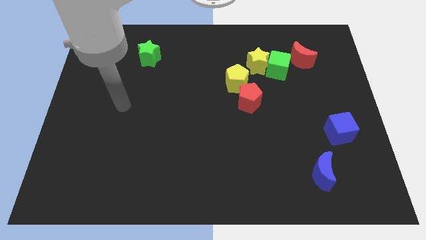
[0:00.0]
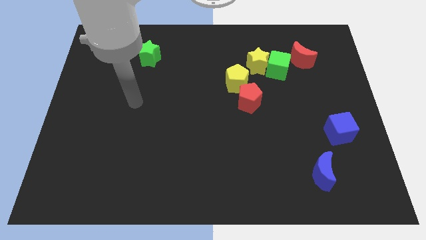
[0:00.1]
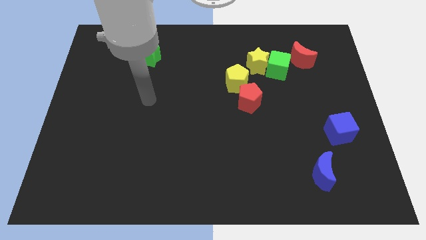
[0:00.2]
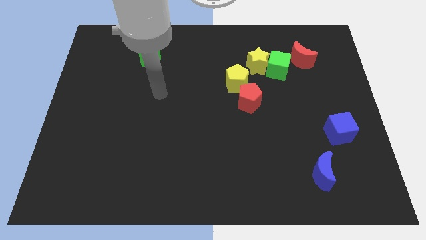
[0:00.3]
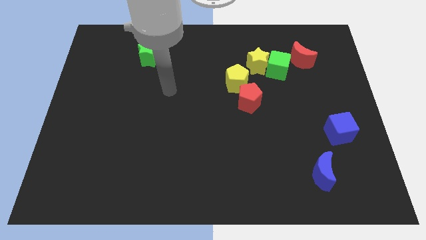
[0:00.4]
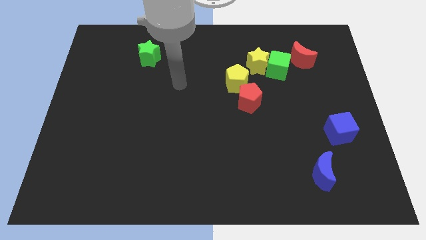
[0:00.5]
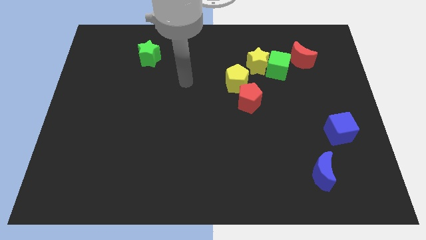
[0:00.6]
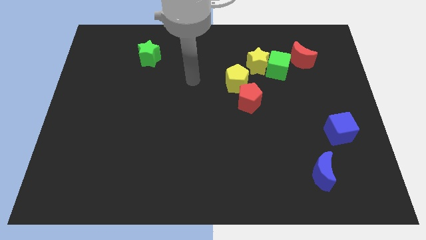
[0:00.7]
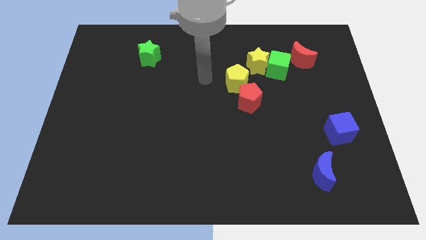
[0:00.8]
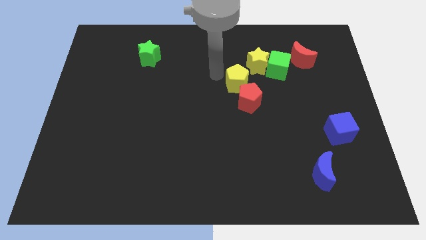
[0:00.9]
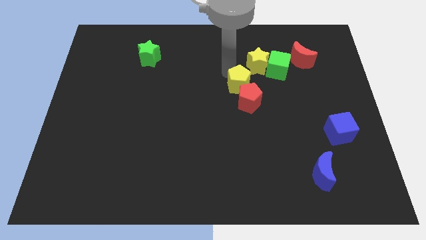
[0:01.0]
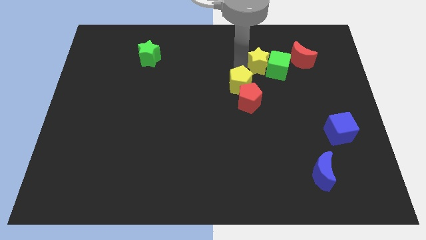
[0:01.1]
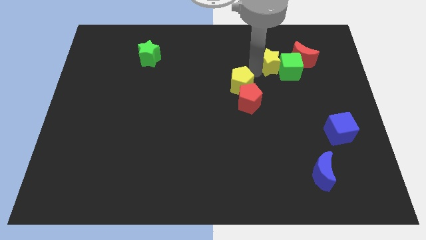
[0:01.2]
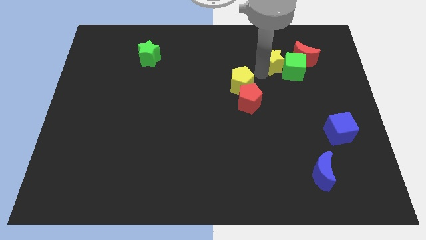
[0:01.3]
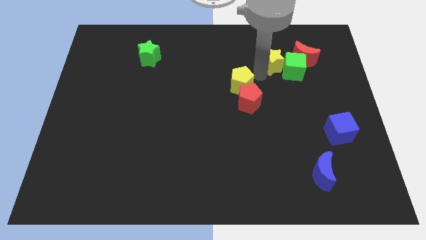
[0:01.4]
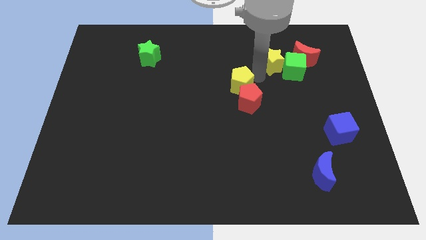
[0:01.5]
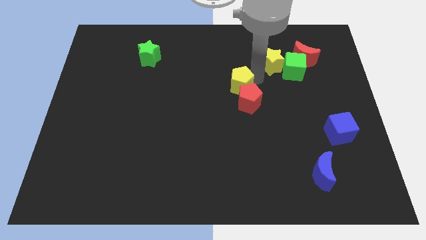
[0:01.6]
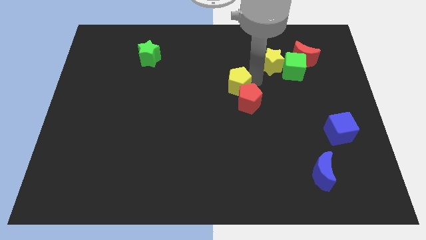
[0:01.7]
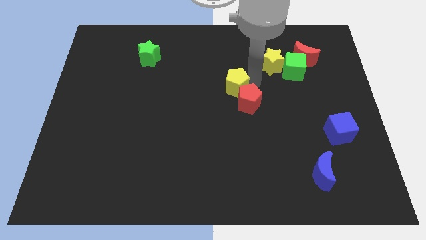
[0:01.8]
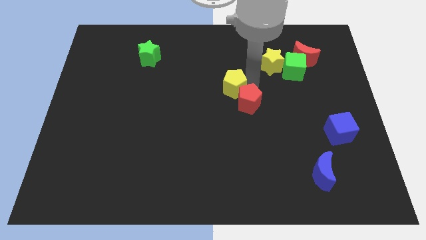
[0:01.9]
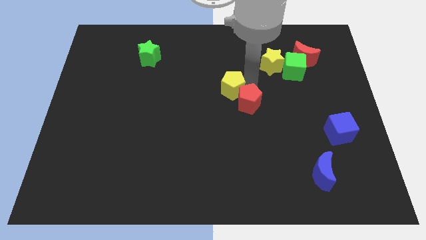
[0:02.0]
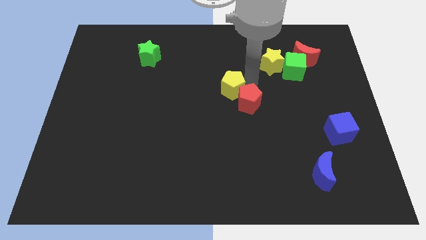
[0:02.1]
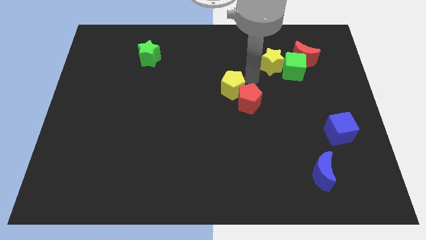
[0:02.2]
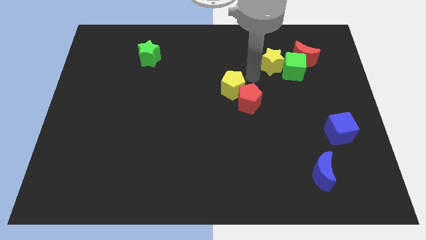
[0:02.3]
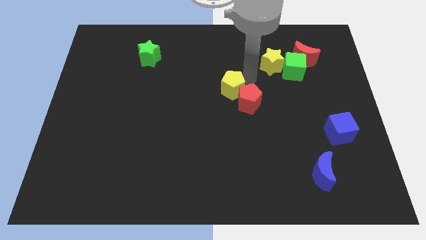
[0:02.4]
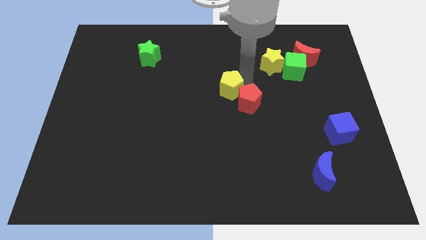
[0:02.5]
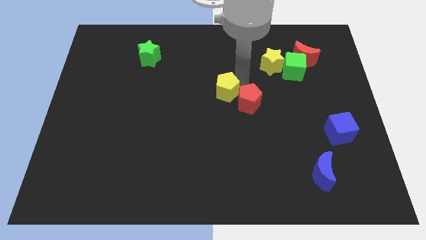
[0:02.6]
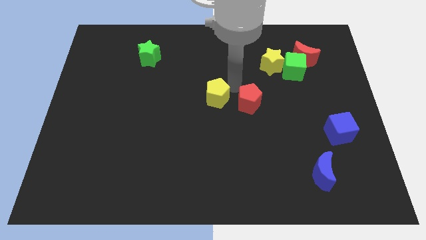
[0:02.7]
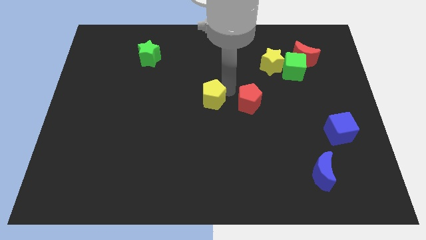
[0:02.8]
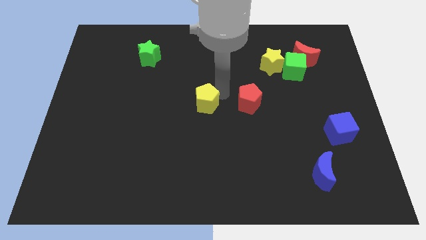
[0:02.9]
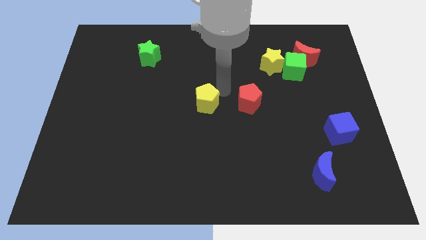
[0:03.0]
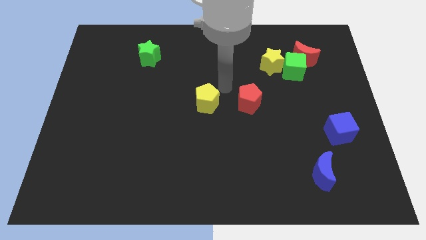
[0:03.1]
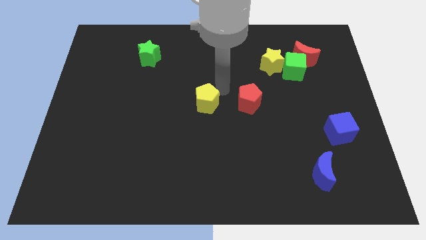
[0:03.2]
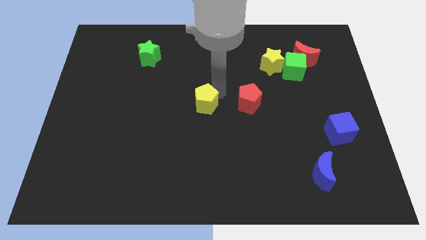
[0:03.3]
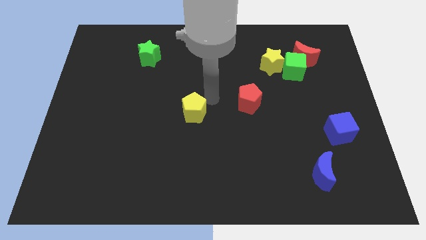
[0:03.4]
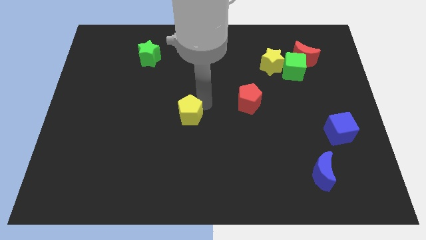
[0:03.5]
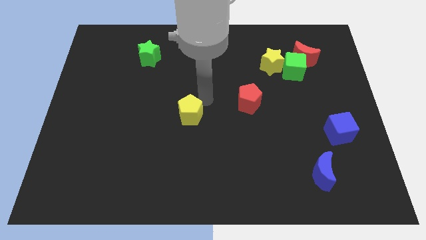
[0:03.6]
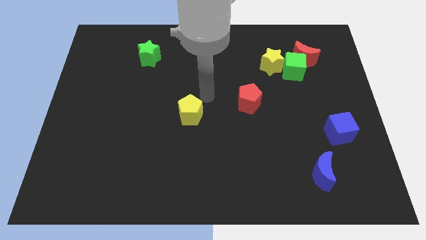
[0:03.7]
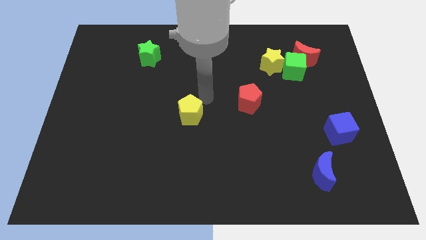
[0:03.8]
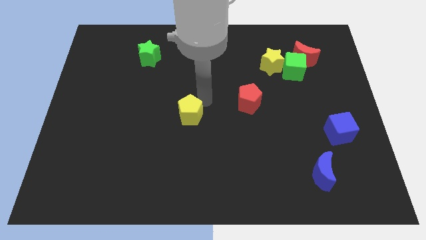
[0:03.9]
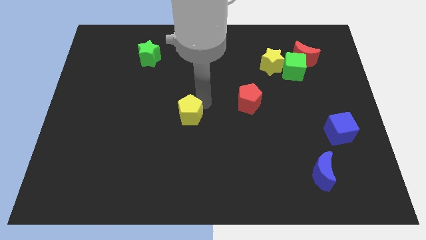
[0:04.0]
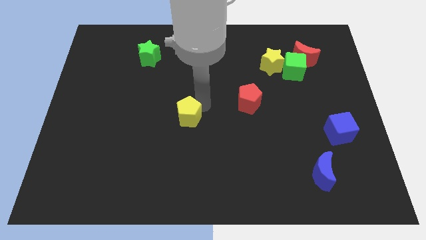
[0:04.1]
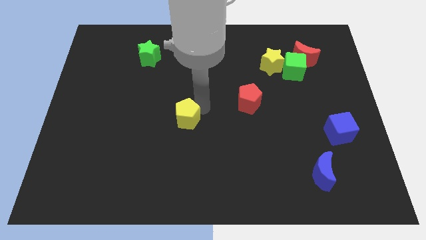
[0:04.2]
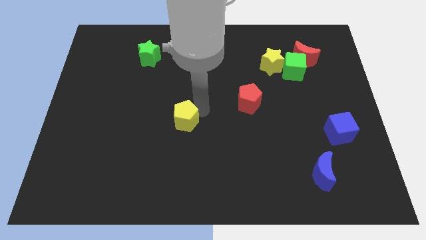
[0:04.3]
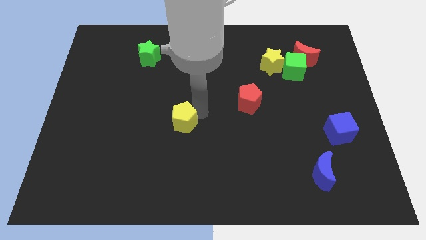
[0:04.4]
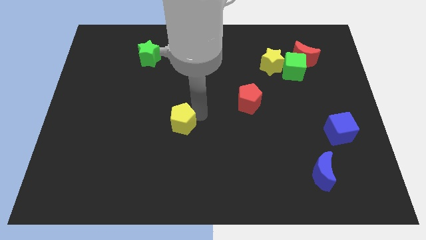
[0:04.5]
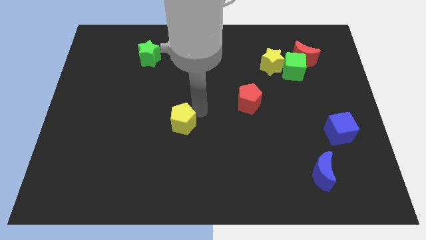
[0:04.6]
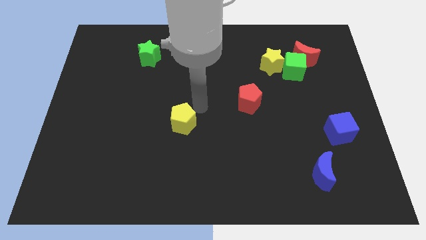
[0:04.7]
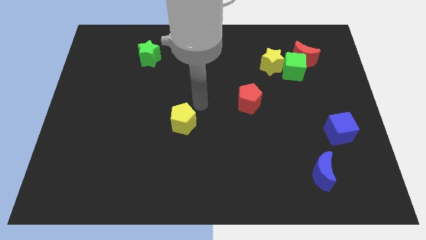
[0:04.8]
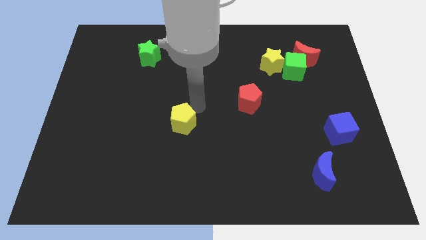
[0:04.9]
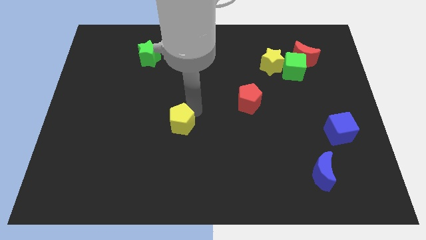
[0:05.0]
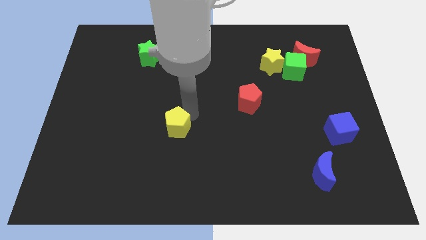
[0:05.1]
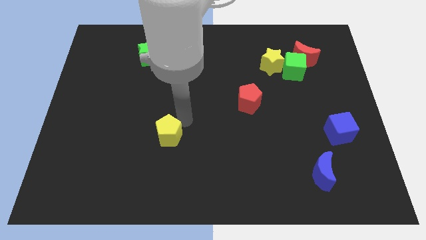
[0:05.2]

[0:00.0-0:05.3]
slide the yellow pentagon downwards and then to the left

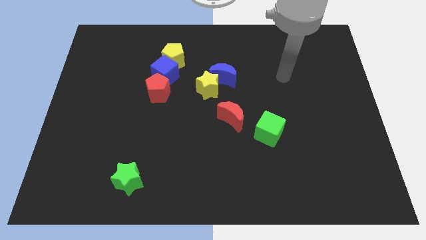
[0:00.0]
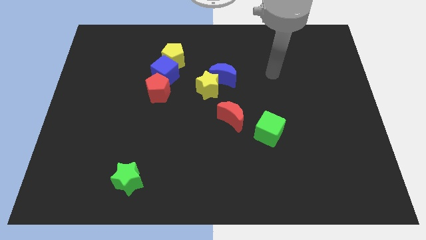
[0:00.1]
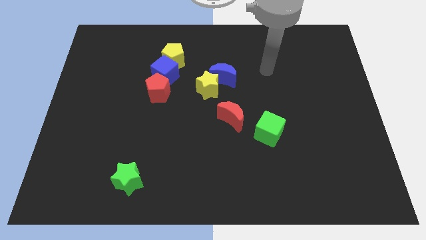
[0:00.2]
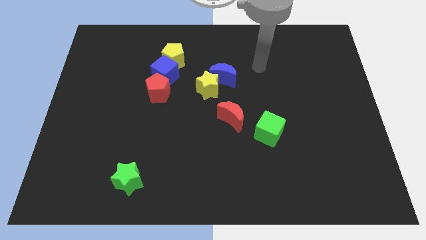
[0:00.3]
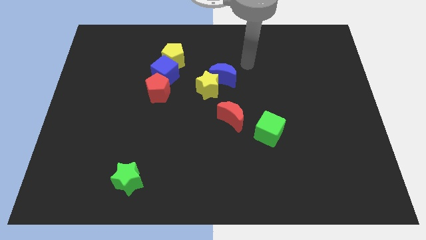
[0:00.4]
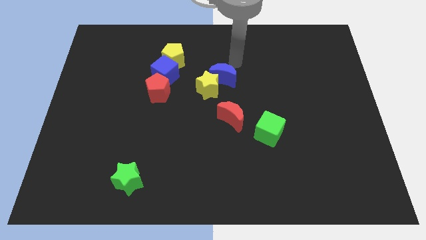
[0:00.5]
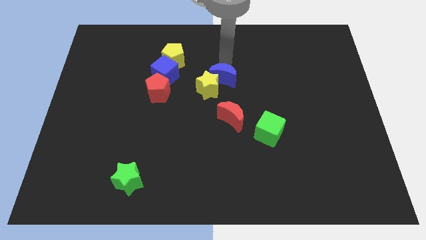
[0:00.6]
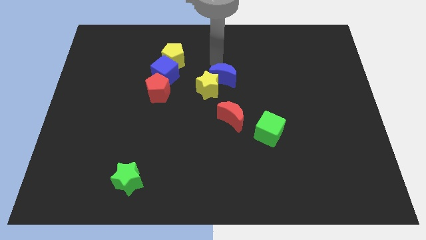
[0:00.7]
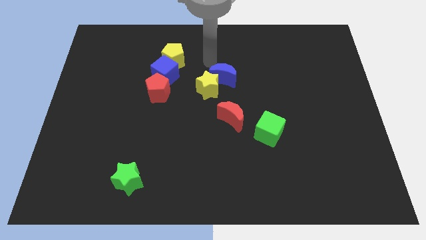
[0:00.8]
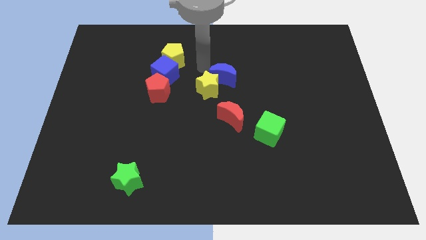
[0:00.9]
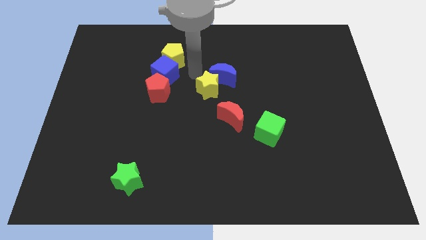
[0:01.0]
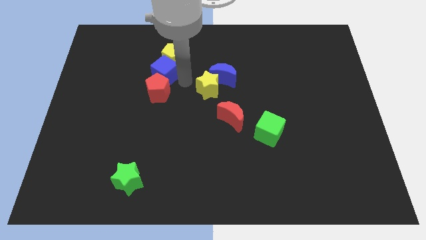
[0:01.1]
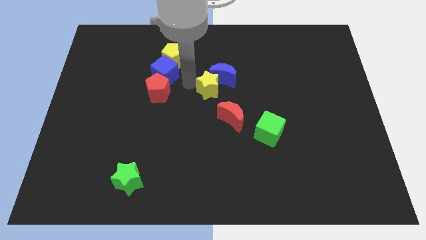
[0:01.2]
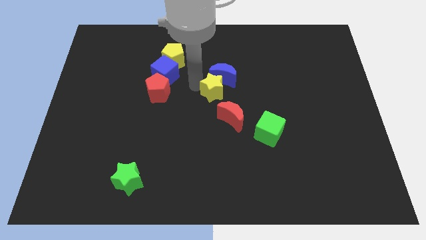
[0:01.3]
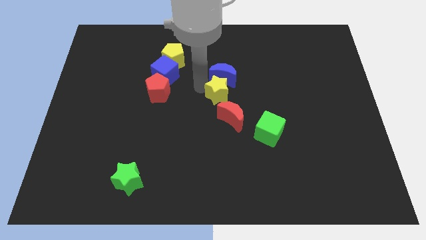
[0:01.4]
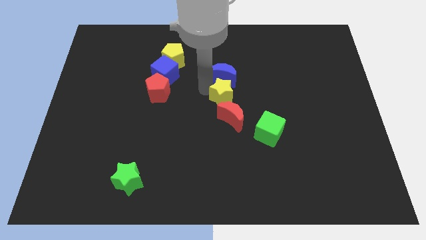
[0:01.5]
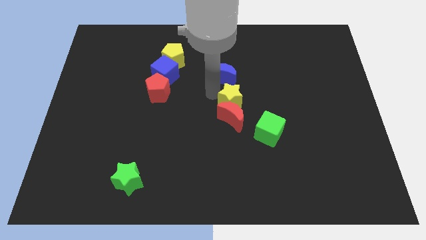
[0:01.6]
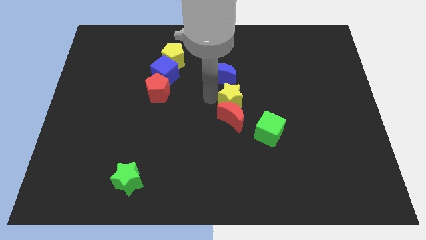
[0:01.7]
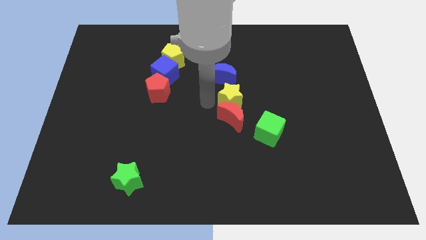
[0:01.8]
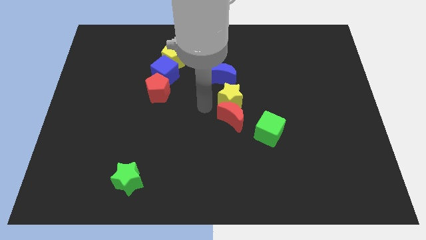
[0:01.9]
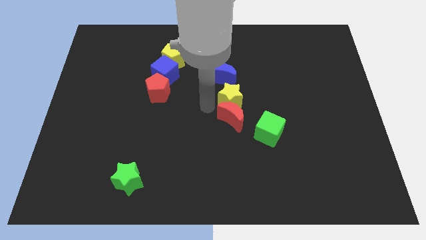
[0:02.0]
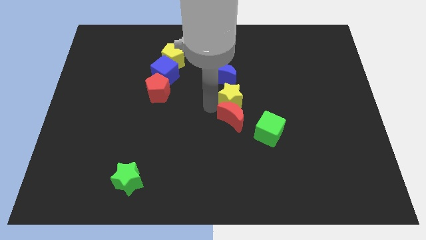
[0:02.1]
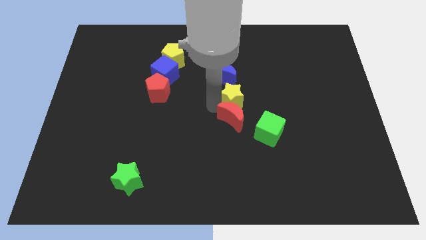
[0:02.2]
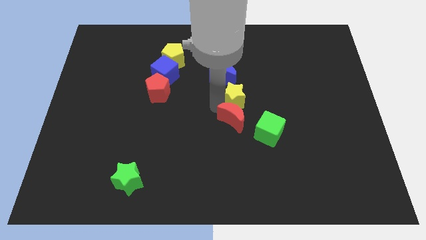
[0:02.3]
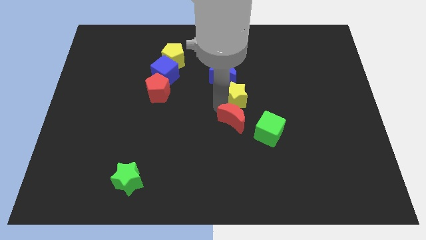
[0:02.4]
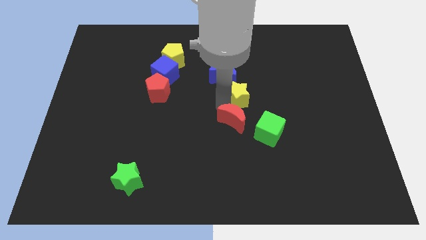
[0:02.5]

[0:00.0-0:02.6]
slightly push the yellow star right

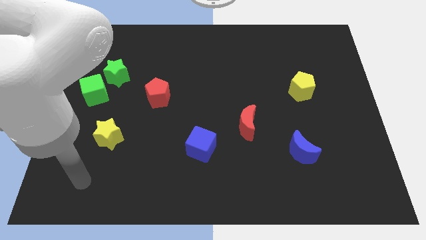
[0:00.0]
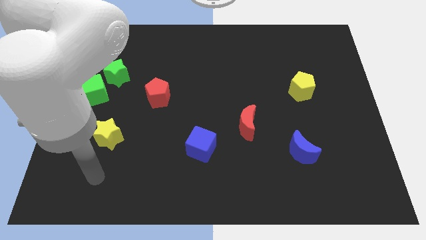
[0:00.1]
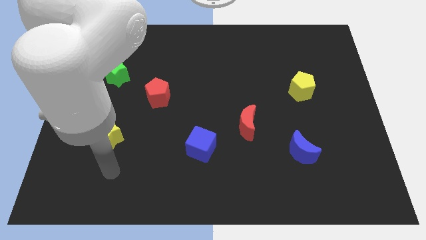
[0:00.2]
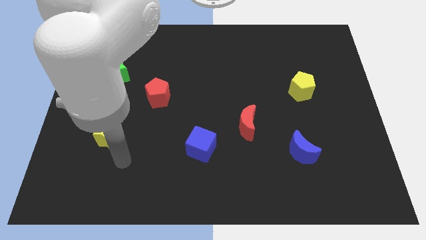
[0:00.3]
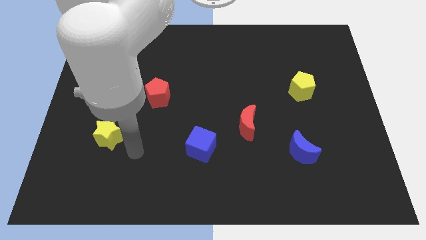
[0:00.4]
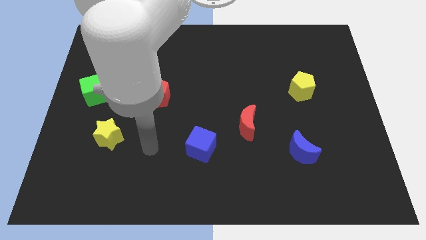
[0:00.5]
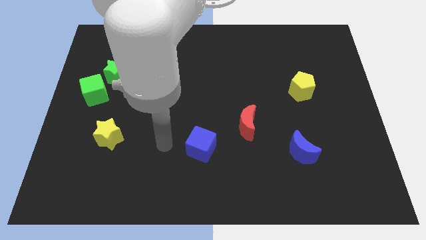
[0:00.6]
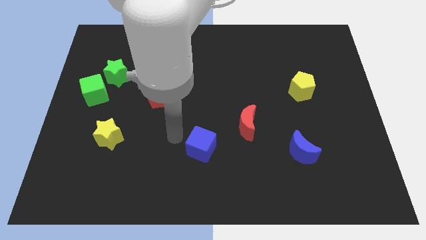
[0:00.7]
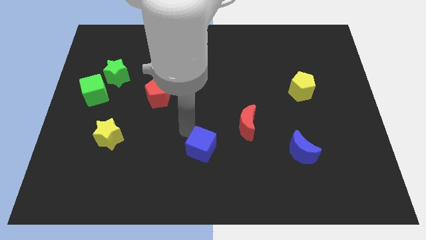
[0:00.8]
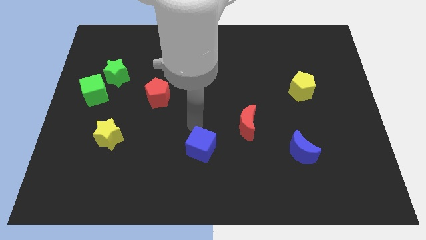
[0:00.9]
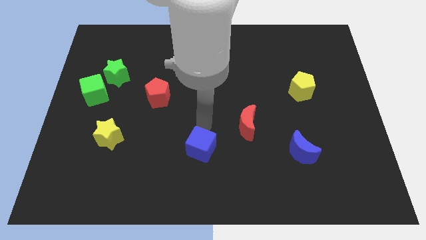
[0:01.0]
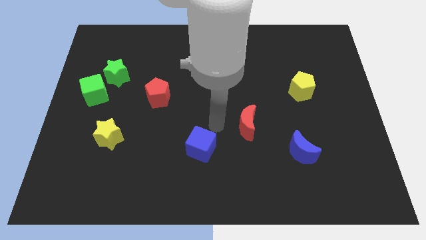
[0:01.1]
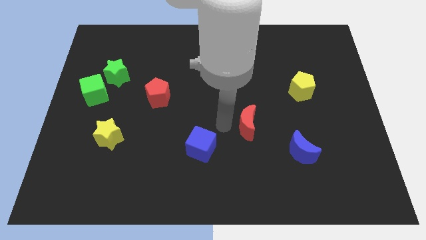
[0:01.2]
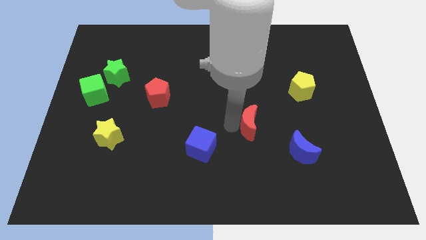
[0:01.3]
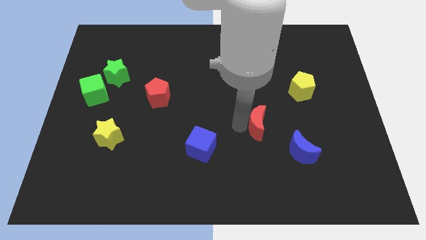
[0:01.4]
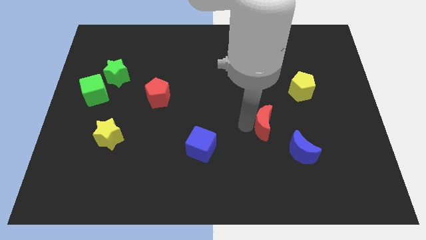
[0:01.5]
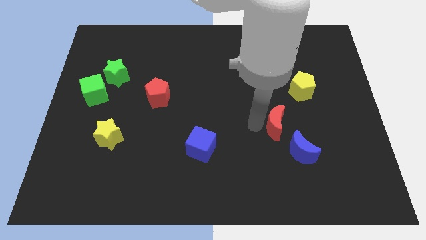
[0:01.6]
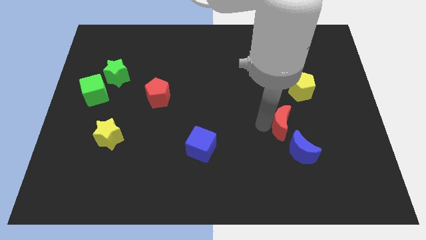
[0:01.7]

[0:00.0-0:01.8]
slightly push the red moon right
